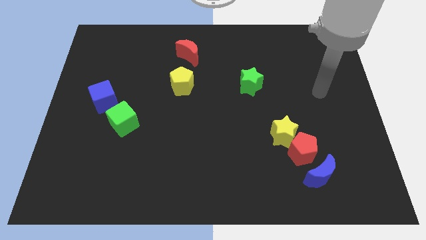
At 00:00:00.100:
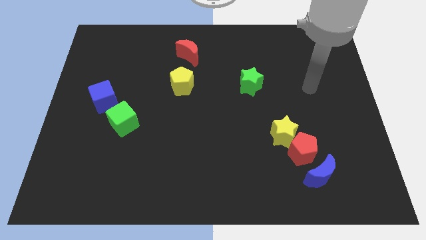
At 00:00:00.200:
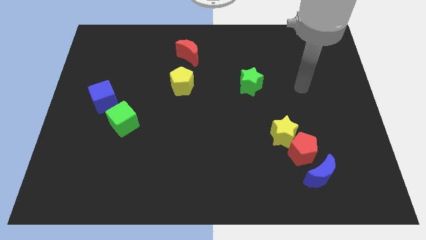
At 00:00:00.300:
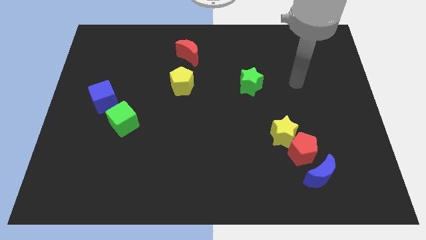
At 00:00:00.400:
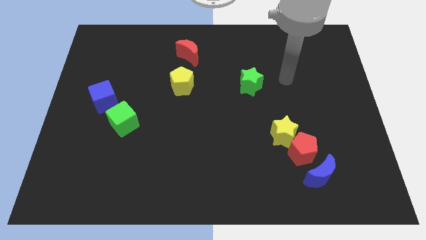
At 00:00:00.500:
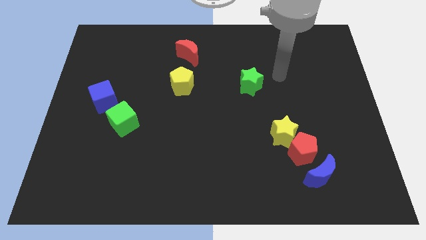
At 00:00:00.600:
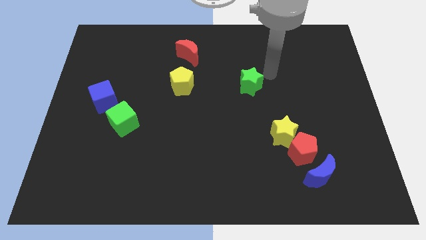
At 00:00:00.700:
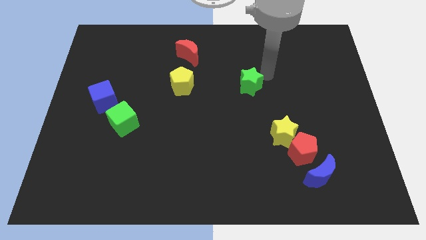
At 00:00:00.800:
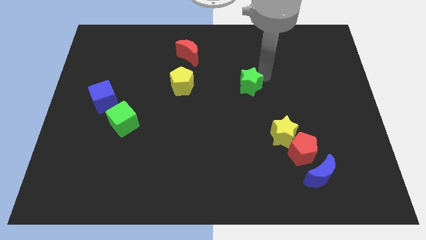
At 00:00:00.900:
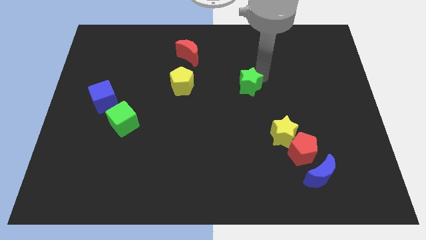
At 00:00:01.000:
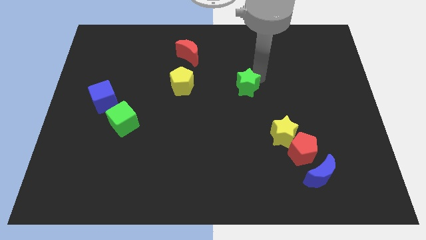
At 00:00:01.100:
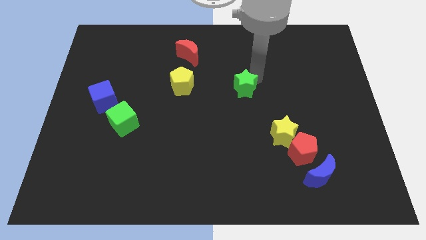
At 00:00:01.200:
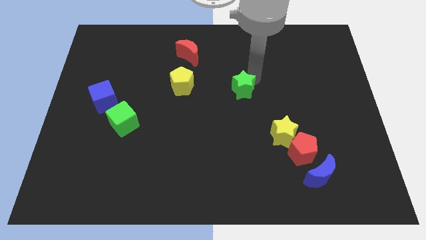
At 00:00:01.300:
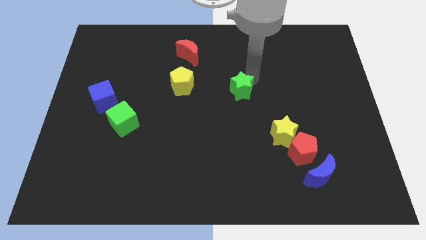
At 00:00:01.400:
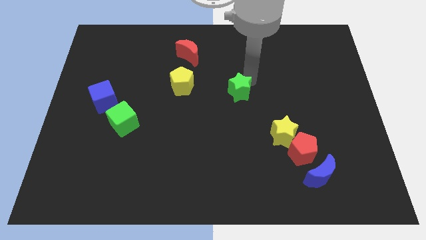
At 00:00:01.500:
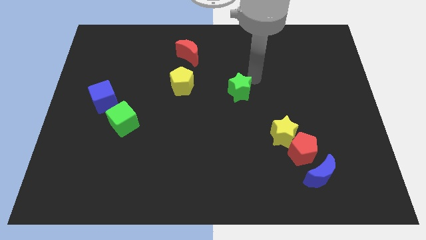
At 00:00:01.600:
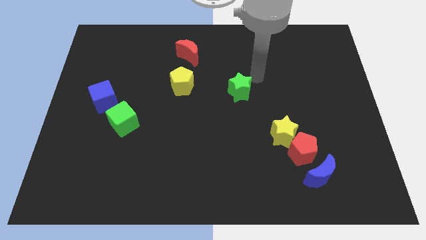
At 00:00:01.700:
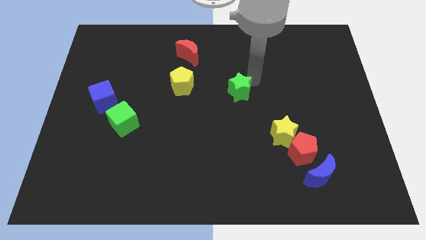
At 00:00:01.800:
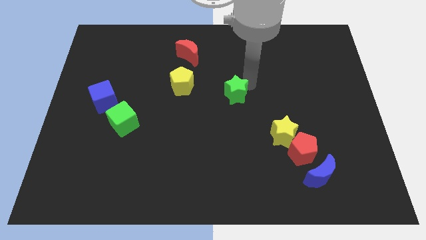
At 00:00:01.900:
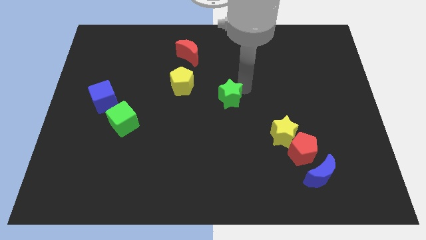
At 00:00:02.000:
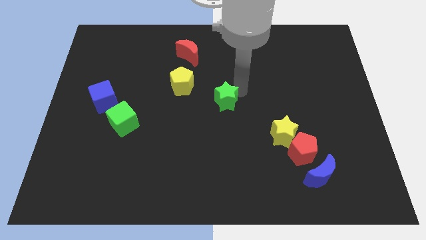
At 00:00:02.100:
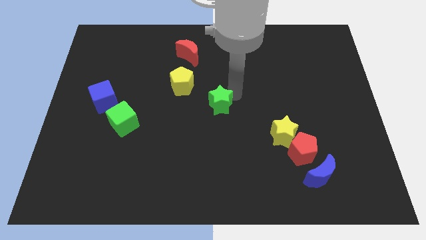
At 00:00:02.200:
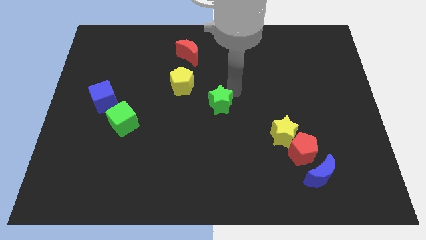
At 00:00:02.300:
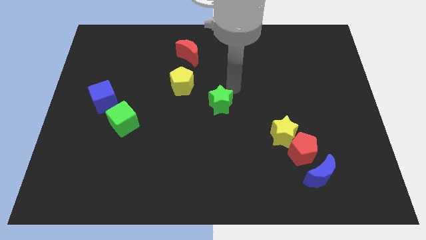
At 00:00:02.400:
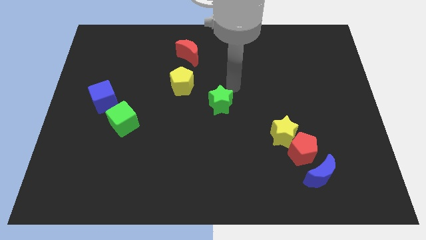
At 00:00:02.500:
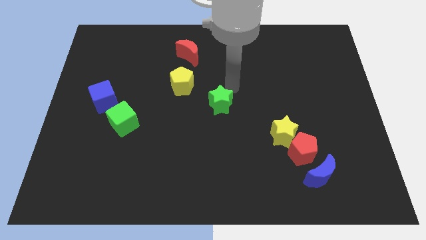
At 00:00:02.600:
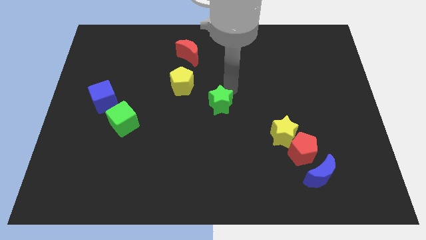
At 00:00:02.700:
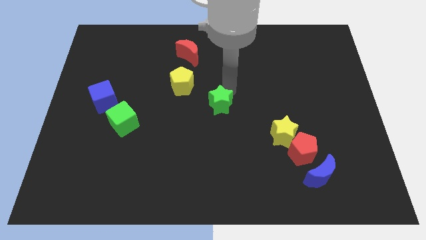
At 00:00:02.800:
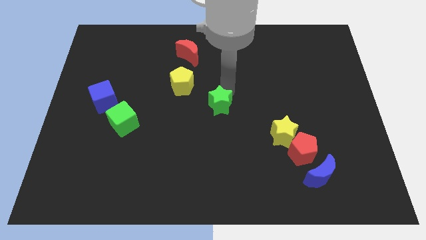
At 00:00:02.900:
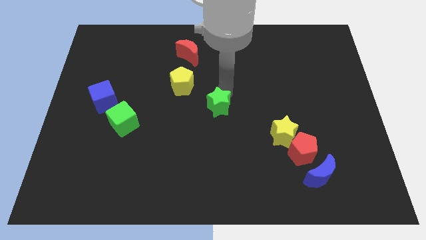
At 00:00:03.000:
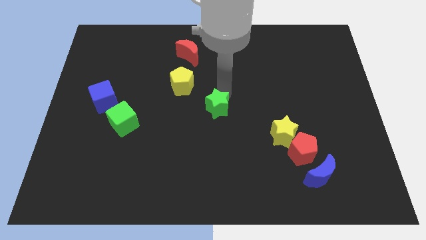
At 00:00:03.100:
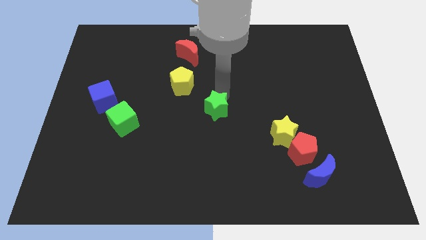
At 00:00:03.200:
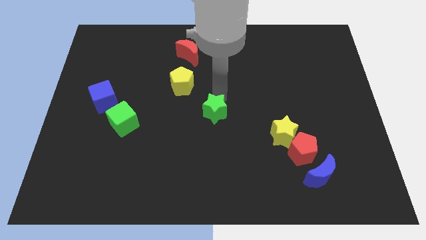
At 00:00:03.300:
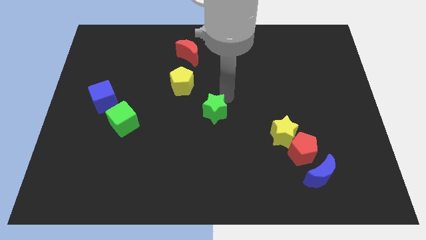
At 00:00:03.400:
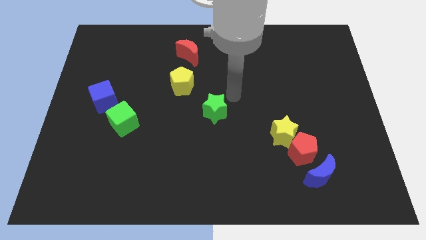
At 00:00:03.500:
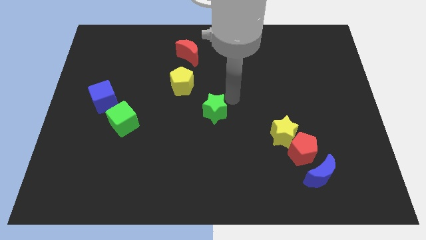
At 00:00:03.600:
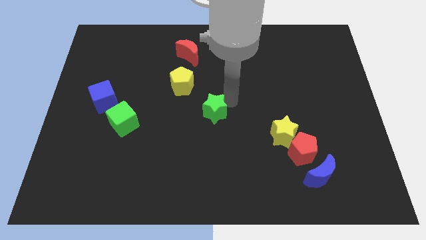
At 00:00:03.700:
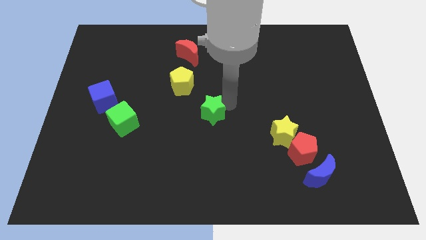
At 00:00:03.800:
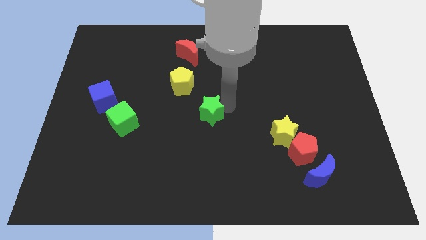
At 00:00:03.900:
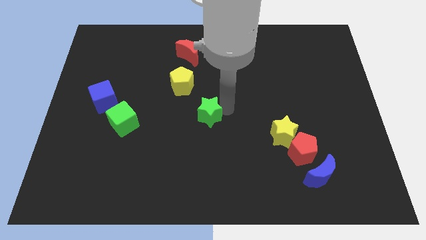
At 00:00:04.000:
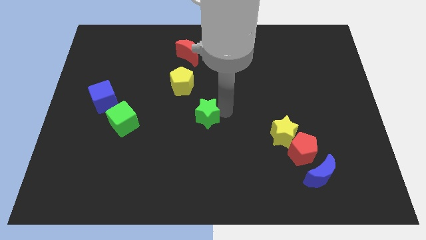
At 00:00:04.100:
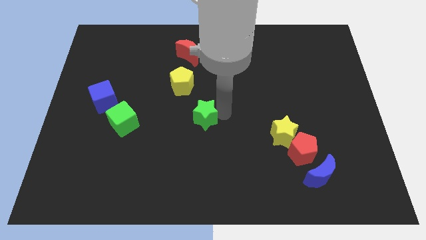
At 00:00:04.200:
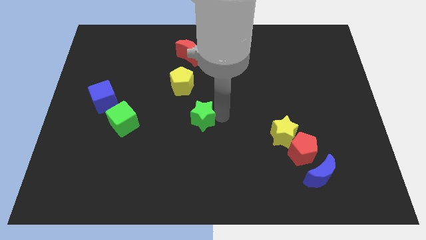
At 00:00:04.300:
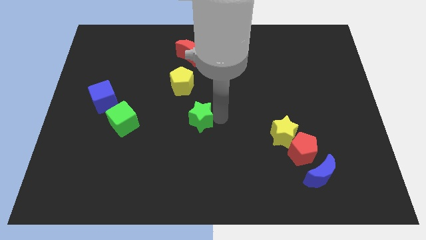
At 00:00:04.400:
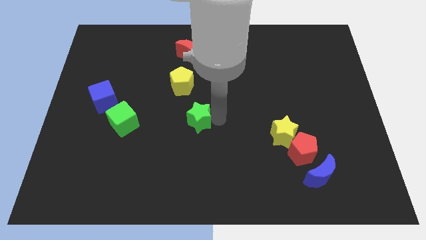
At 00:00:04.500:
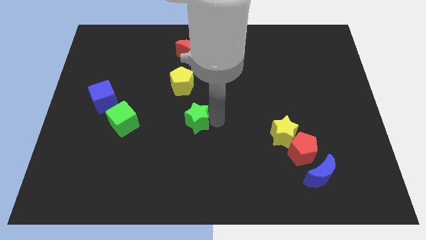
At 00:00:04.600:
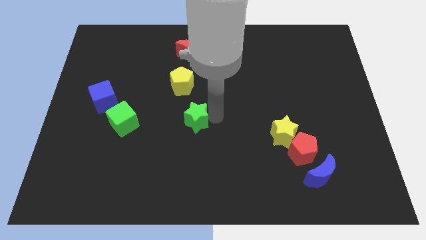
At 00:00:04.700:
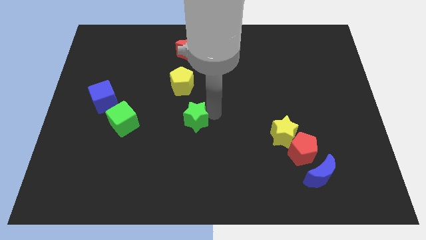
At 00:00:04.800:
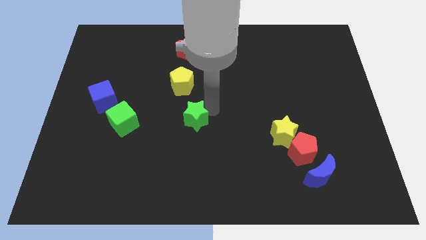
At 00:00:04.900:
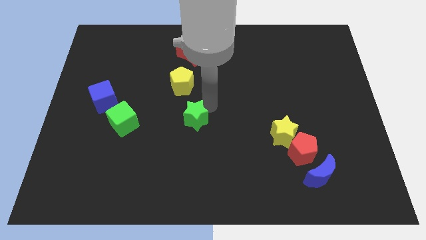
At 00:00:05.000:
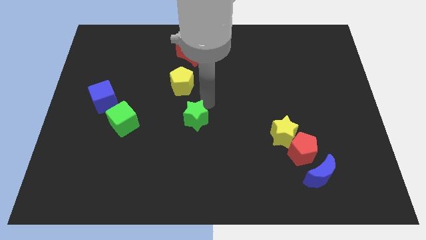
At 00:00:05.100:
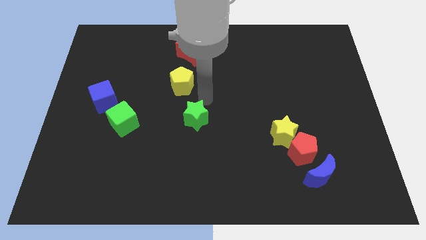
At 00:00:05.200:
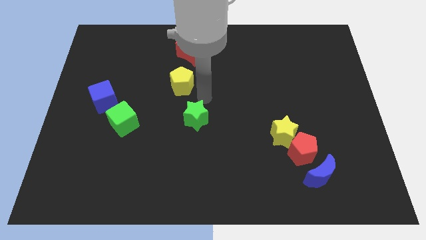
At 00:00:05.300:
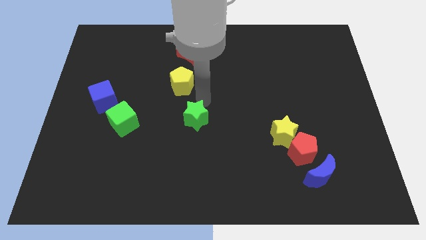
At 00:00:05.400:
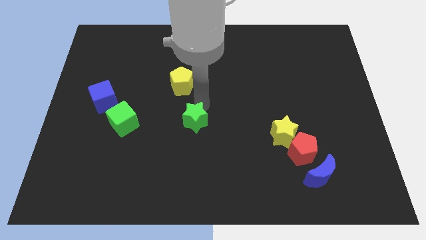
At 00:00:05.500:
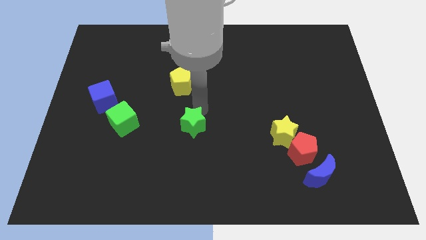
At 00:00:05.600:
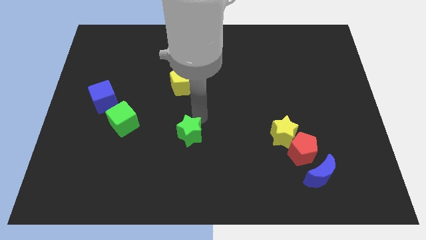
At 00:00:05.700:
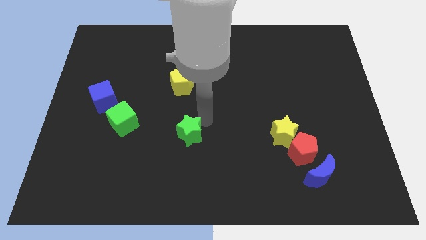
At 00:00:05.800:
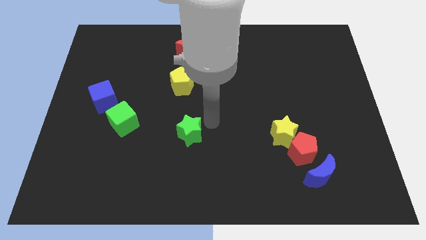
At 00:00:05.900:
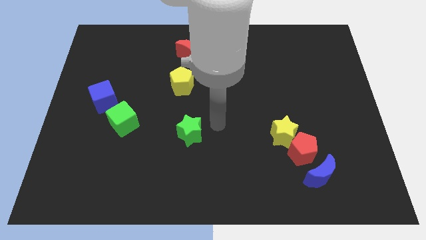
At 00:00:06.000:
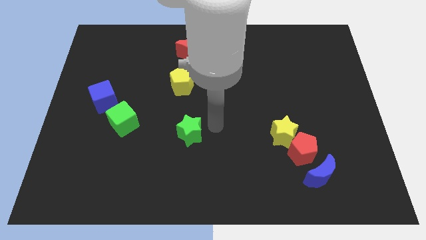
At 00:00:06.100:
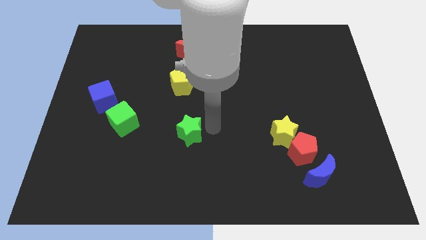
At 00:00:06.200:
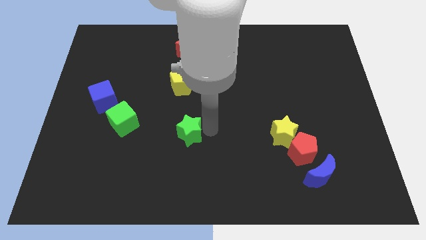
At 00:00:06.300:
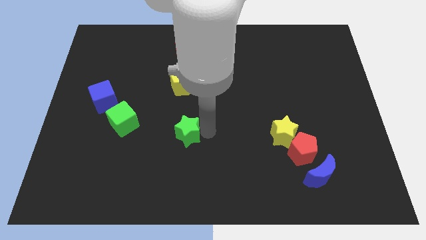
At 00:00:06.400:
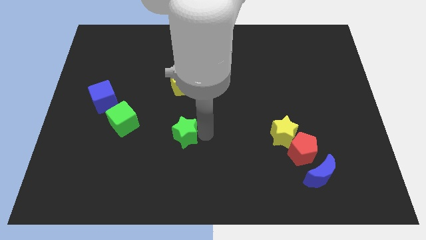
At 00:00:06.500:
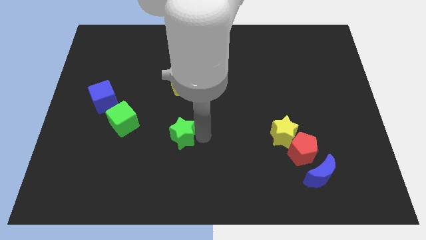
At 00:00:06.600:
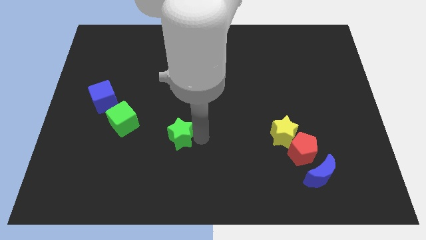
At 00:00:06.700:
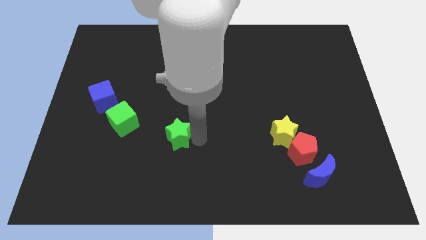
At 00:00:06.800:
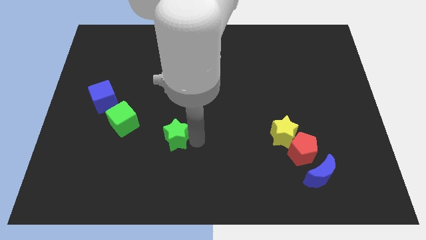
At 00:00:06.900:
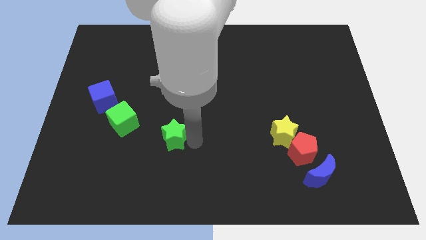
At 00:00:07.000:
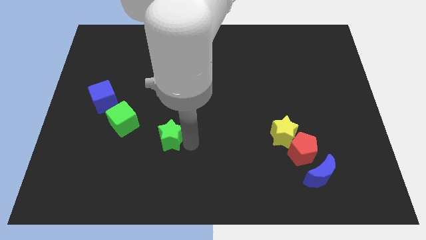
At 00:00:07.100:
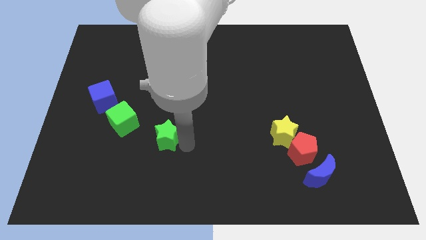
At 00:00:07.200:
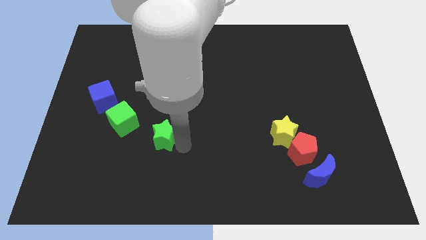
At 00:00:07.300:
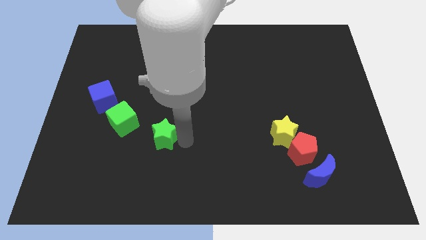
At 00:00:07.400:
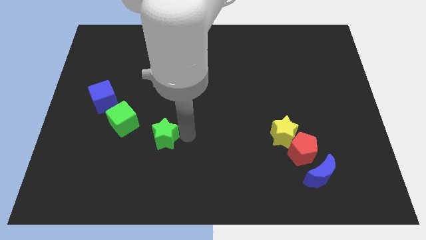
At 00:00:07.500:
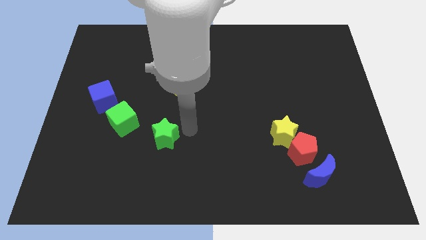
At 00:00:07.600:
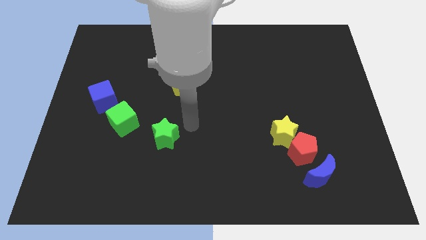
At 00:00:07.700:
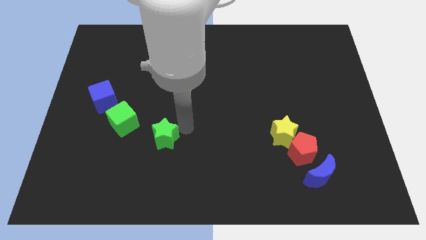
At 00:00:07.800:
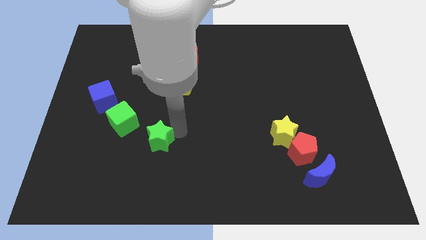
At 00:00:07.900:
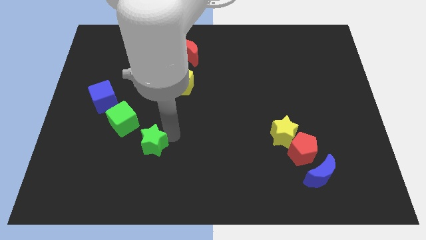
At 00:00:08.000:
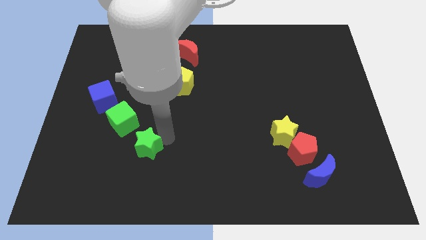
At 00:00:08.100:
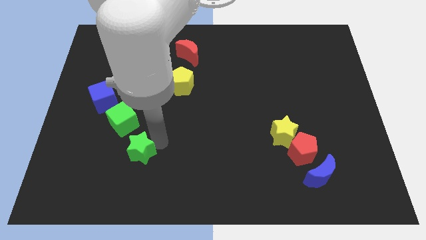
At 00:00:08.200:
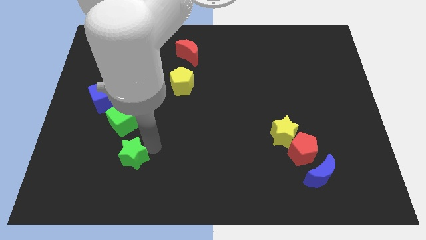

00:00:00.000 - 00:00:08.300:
push the green star to the bottom of the green cube
